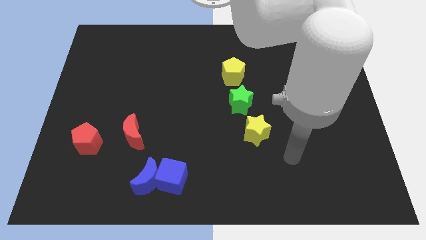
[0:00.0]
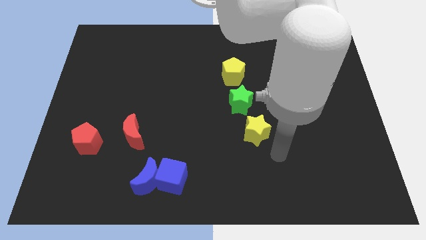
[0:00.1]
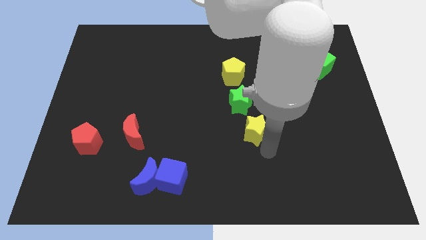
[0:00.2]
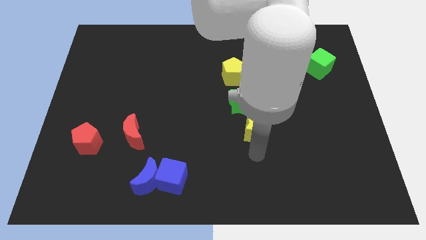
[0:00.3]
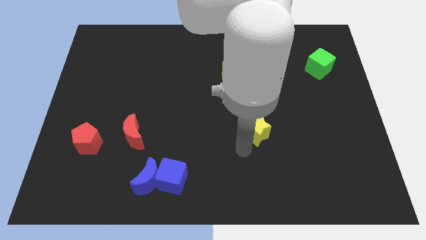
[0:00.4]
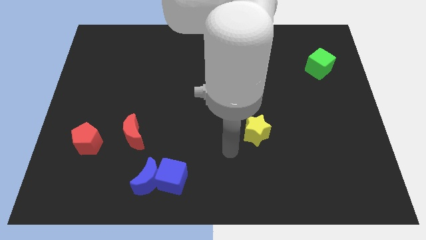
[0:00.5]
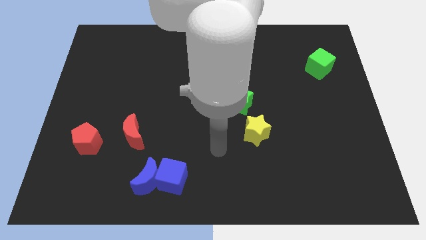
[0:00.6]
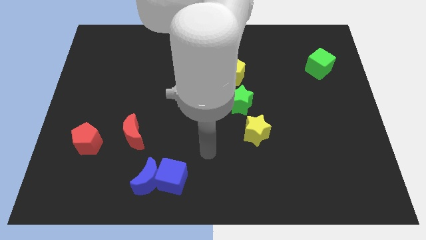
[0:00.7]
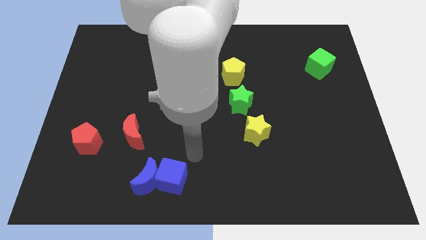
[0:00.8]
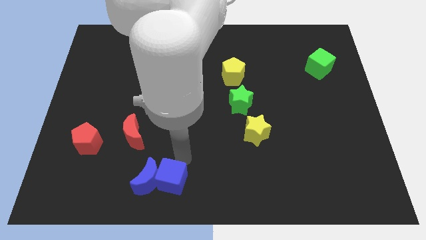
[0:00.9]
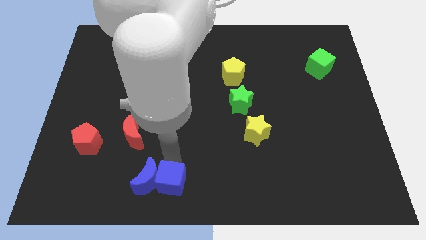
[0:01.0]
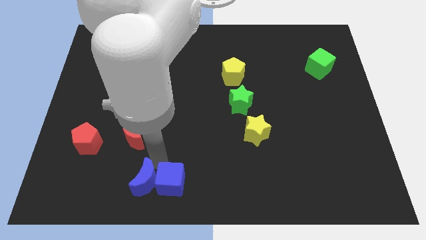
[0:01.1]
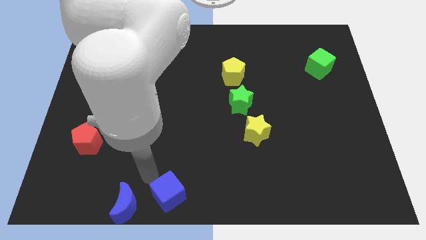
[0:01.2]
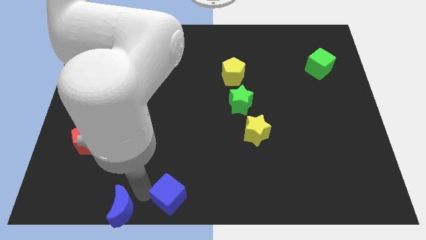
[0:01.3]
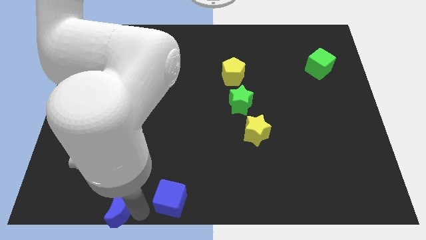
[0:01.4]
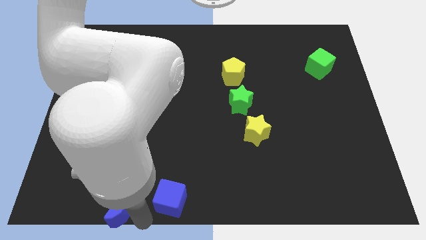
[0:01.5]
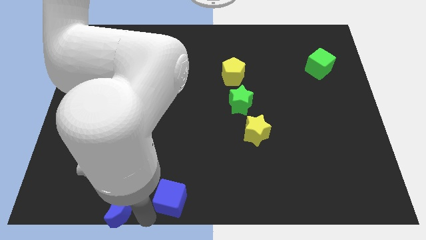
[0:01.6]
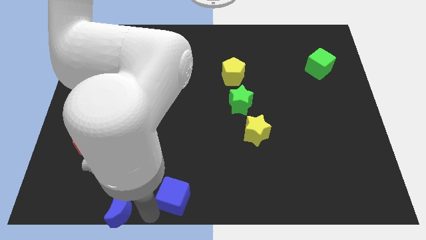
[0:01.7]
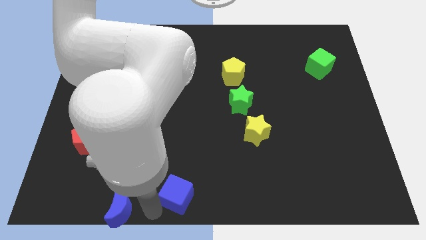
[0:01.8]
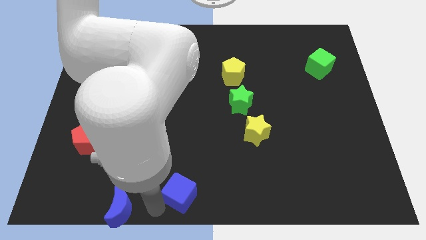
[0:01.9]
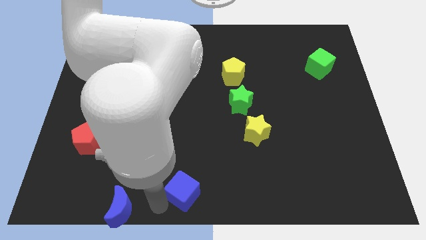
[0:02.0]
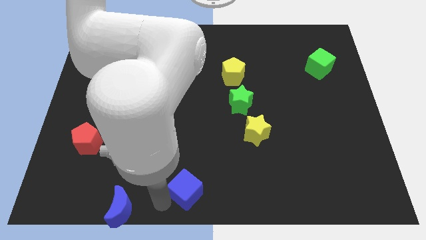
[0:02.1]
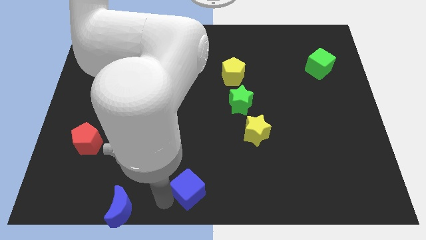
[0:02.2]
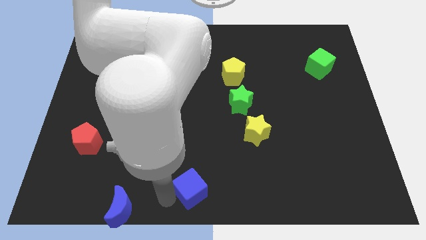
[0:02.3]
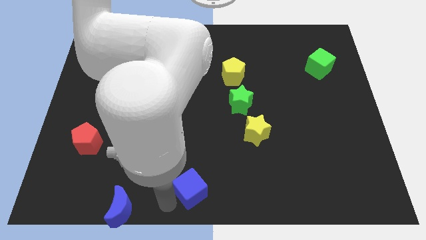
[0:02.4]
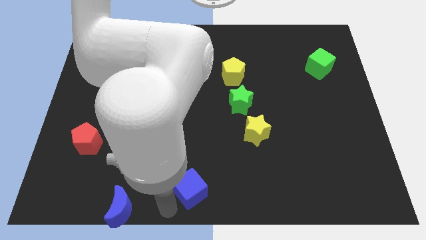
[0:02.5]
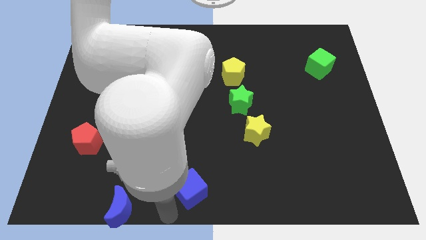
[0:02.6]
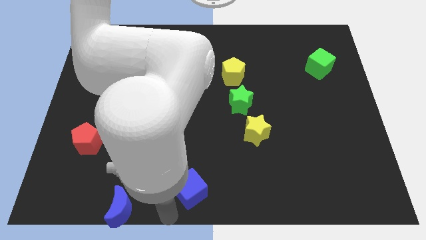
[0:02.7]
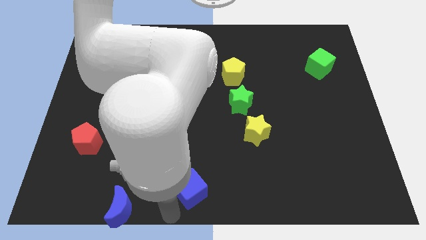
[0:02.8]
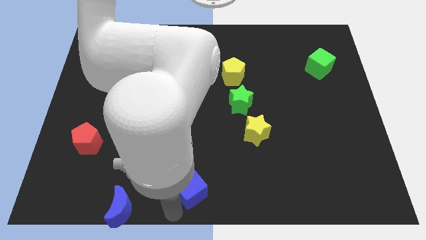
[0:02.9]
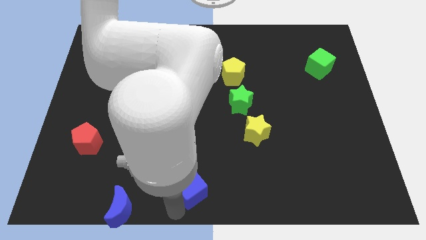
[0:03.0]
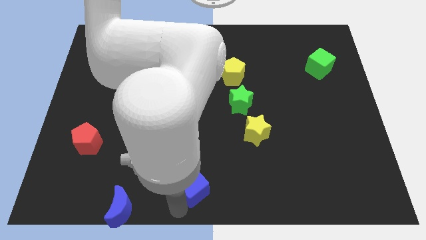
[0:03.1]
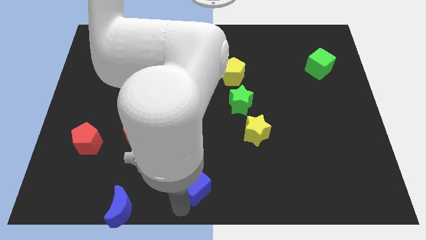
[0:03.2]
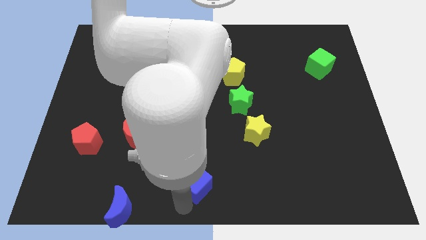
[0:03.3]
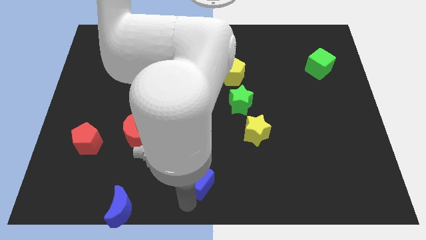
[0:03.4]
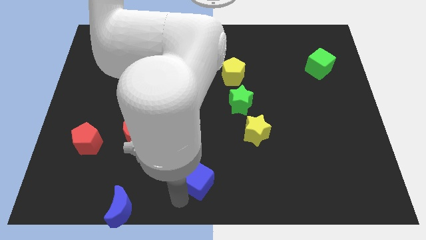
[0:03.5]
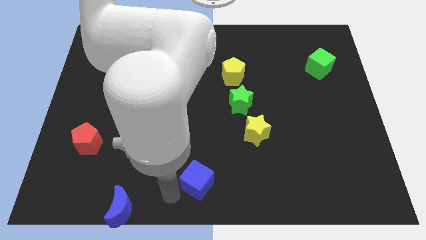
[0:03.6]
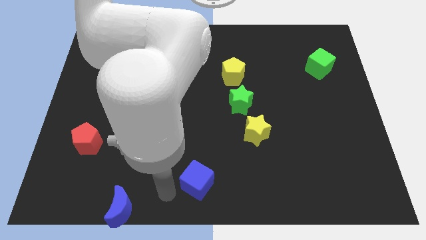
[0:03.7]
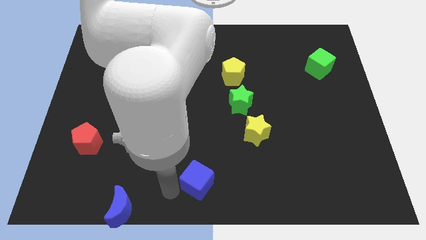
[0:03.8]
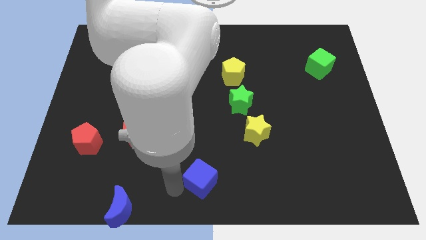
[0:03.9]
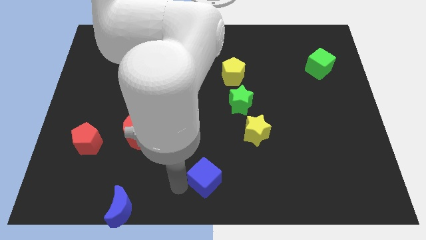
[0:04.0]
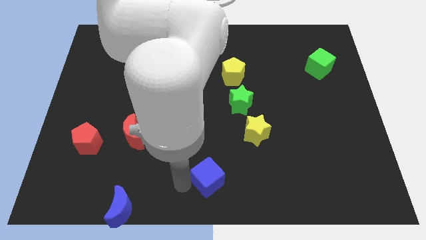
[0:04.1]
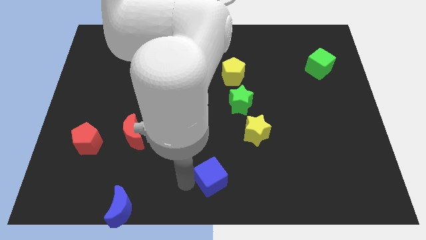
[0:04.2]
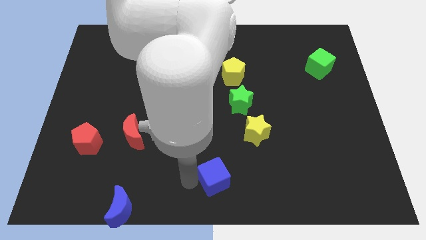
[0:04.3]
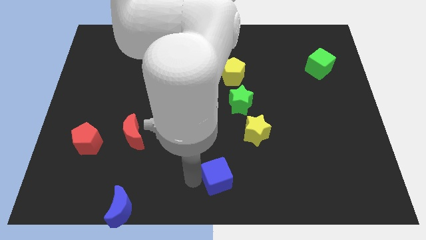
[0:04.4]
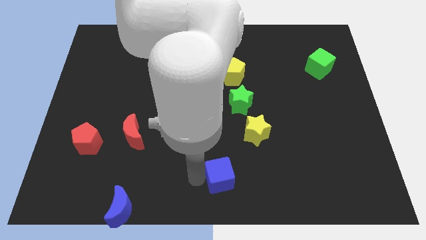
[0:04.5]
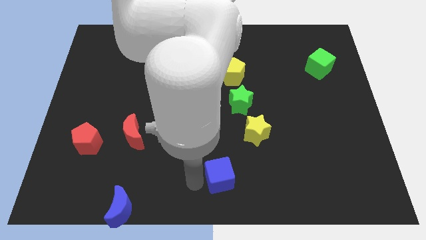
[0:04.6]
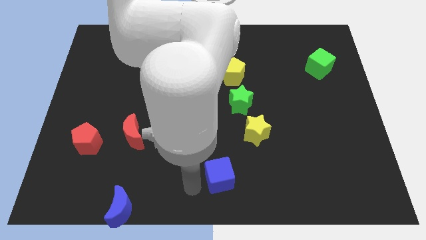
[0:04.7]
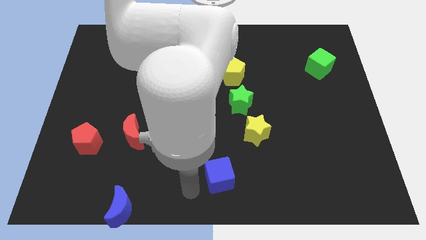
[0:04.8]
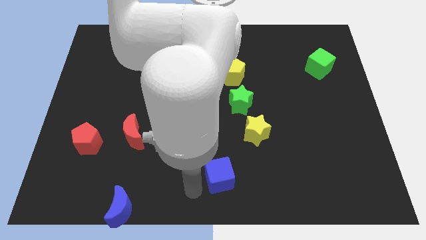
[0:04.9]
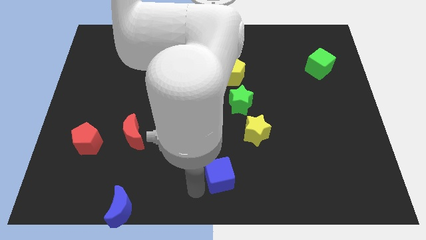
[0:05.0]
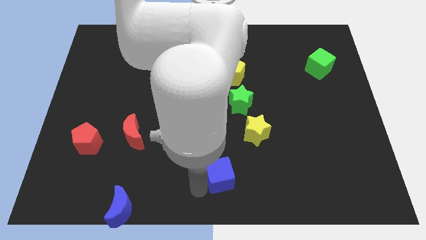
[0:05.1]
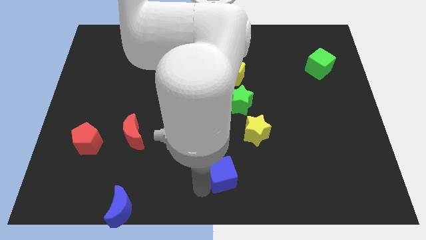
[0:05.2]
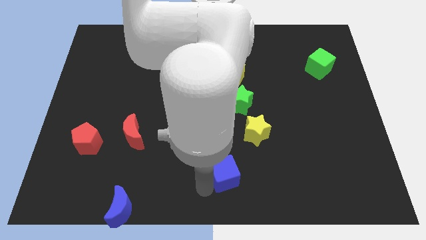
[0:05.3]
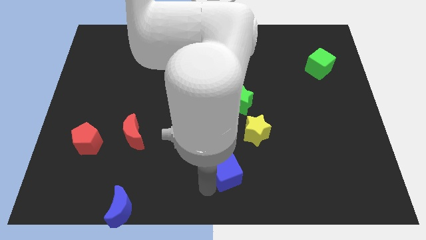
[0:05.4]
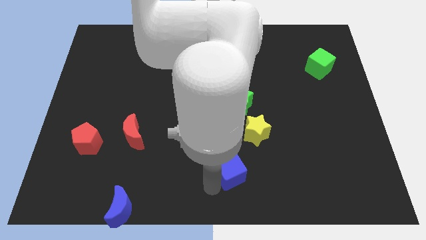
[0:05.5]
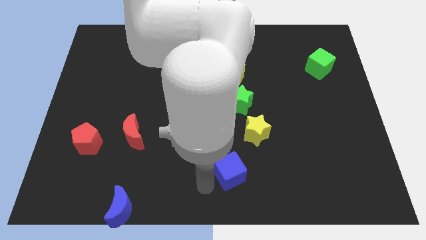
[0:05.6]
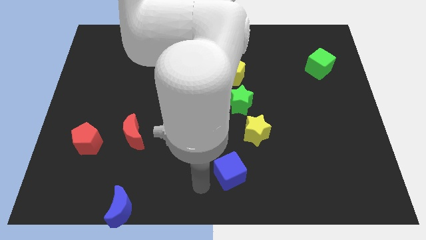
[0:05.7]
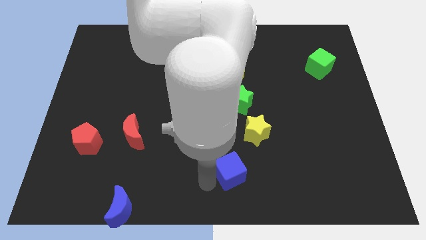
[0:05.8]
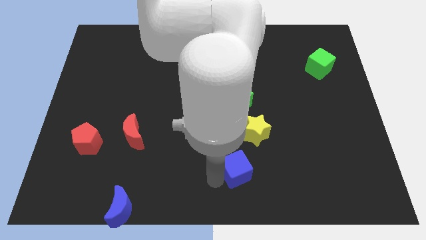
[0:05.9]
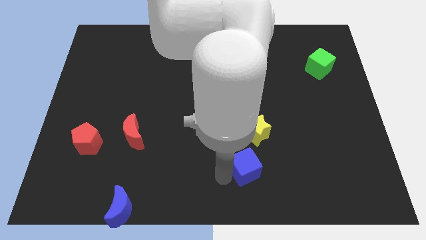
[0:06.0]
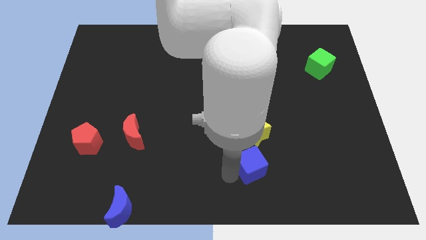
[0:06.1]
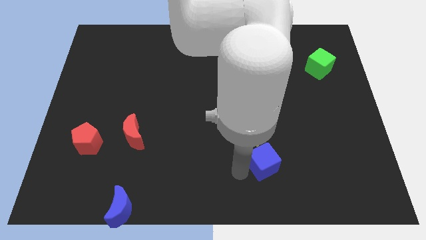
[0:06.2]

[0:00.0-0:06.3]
push the blue cube to the bottom right of the yellow star
